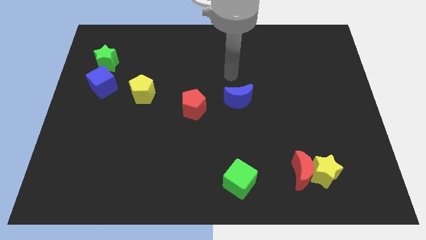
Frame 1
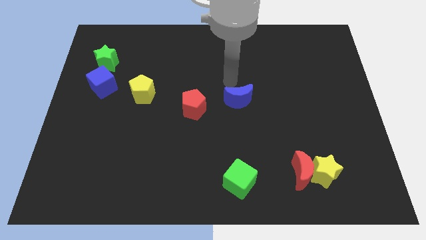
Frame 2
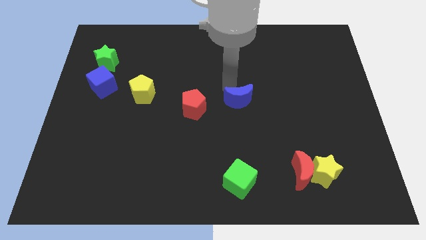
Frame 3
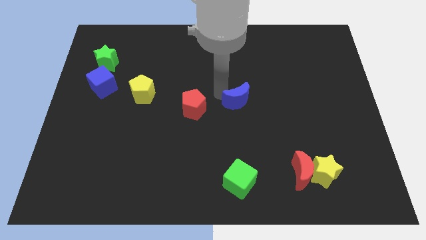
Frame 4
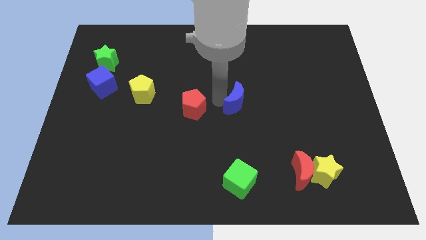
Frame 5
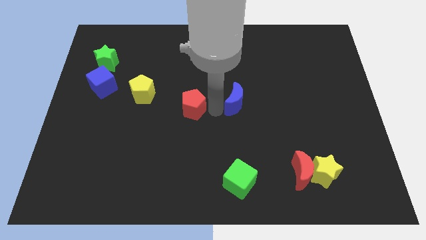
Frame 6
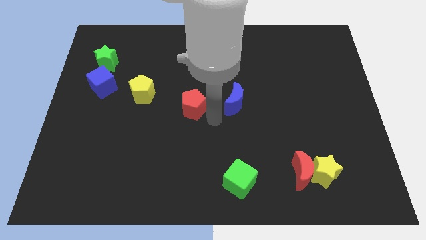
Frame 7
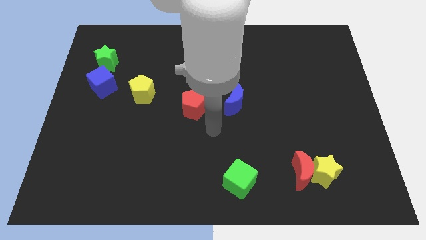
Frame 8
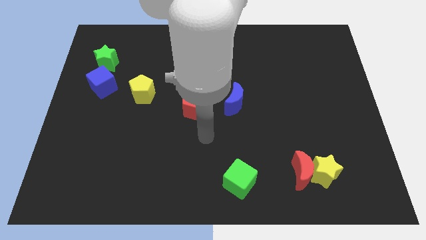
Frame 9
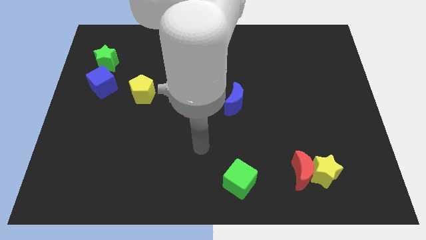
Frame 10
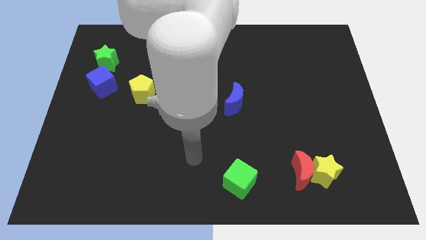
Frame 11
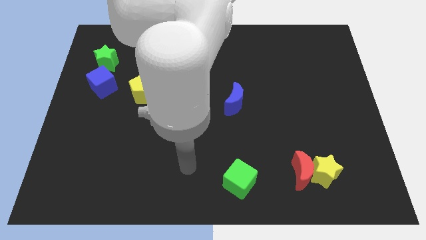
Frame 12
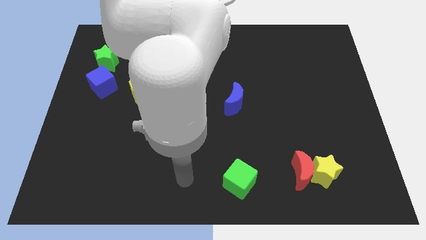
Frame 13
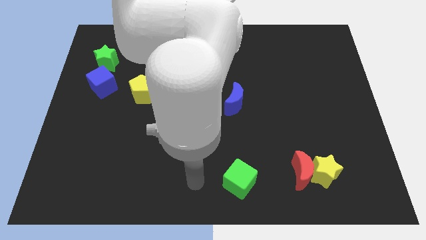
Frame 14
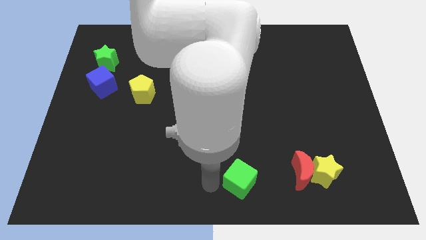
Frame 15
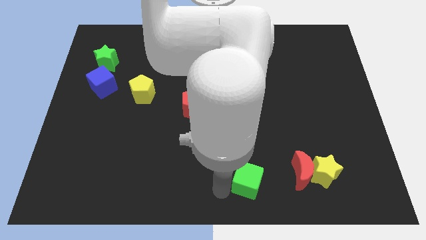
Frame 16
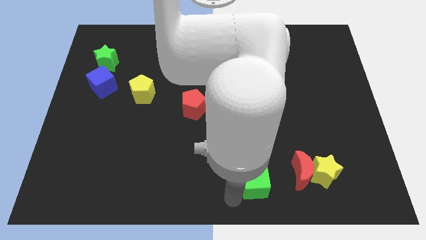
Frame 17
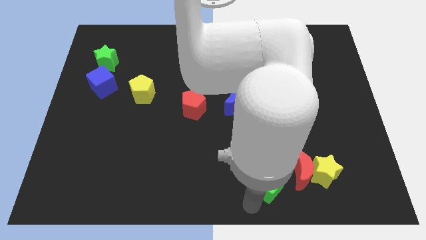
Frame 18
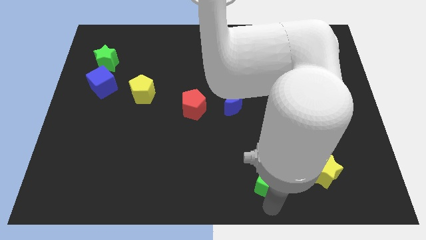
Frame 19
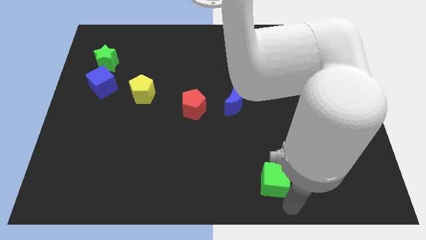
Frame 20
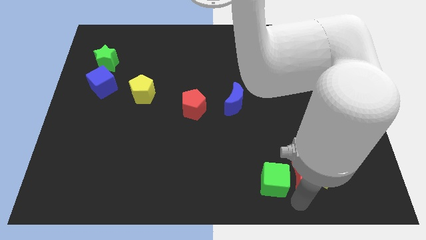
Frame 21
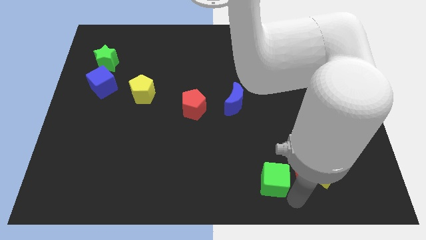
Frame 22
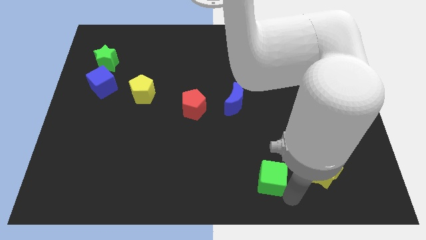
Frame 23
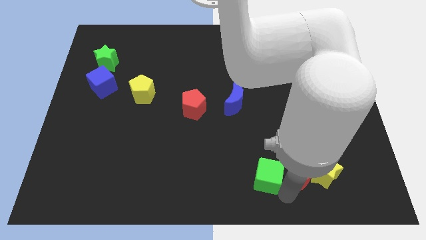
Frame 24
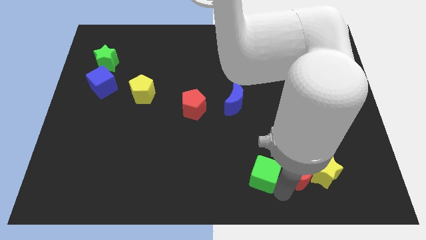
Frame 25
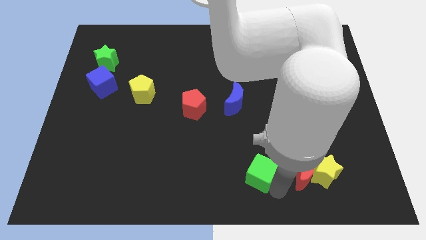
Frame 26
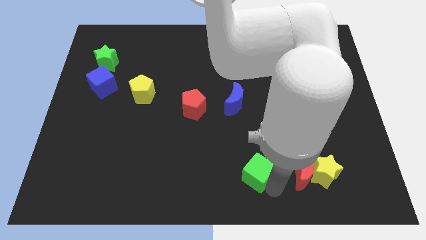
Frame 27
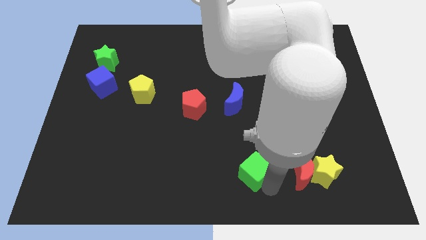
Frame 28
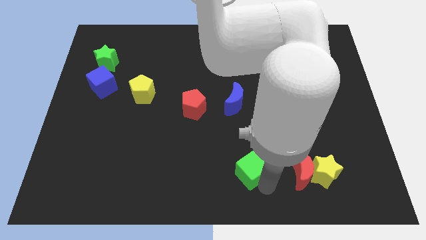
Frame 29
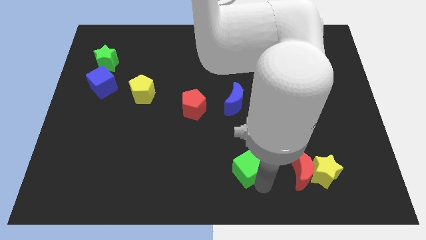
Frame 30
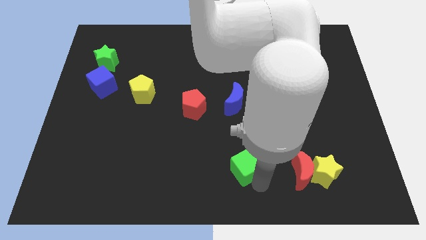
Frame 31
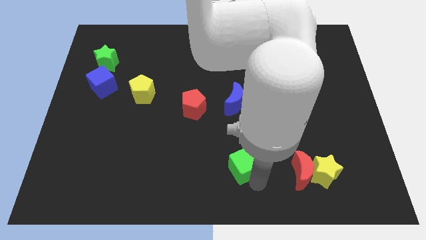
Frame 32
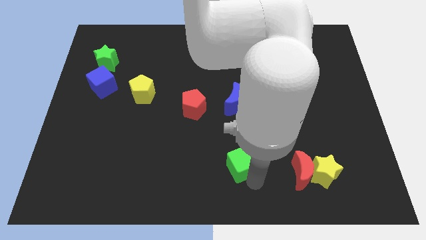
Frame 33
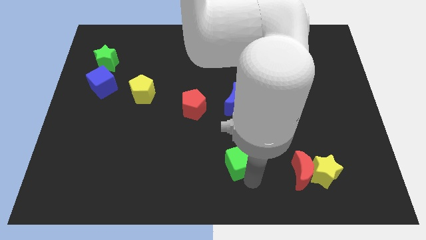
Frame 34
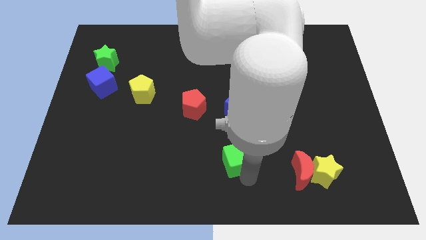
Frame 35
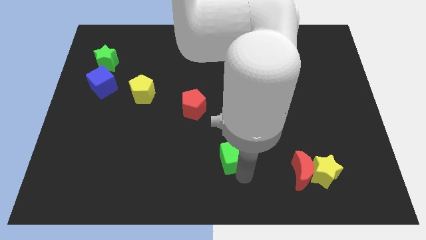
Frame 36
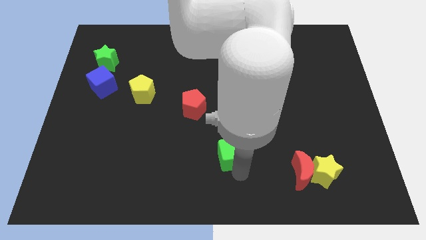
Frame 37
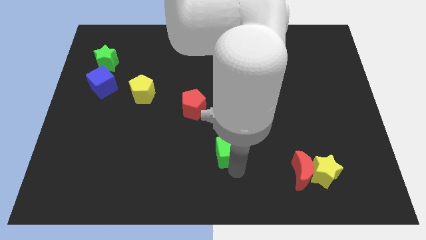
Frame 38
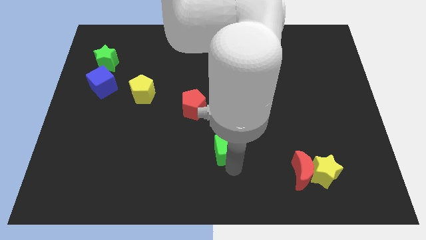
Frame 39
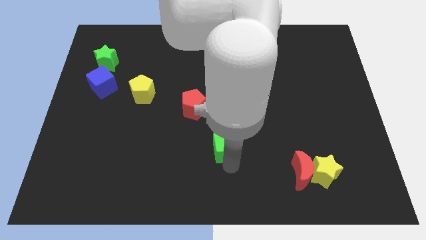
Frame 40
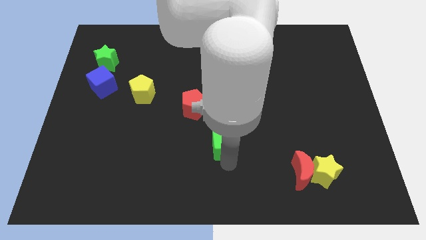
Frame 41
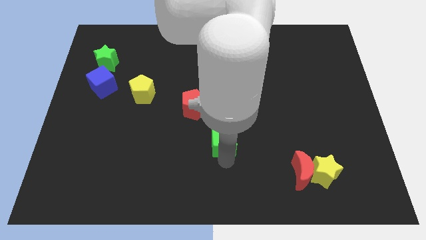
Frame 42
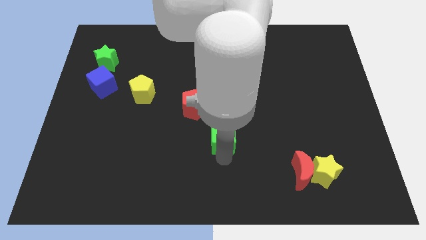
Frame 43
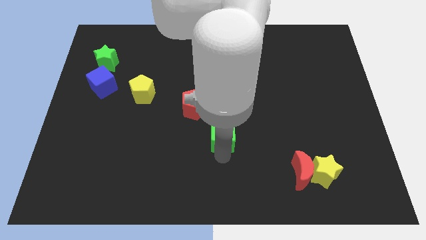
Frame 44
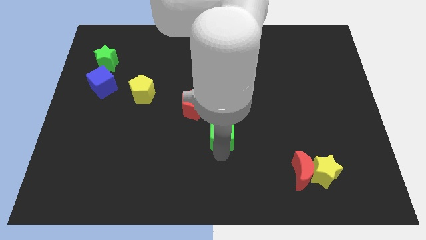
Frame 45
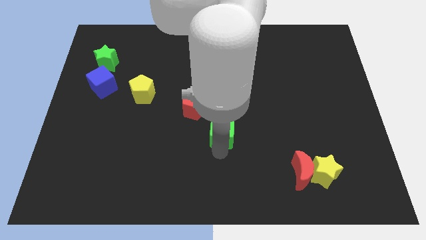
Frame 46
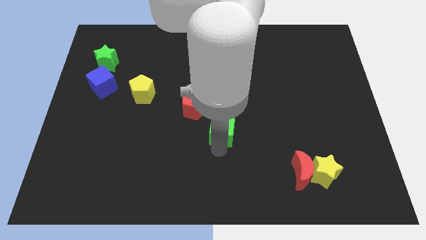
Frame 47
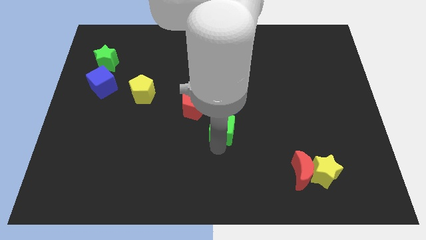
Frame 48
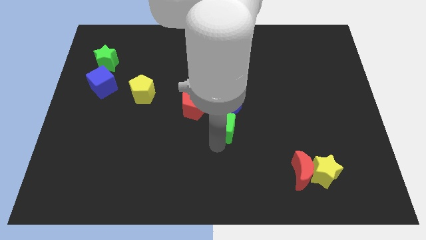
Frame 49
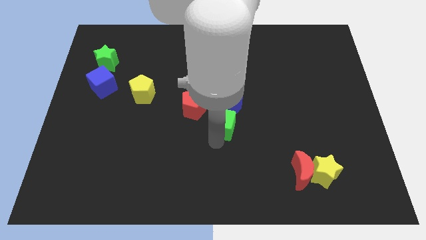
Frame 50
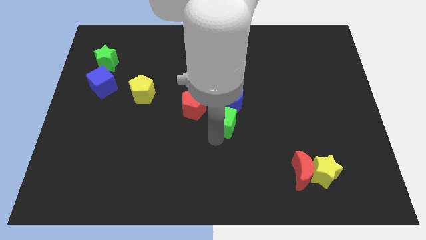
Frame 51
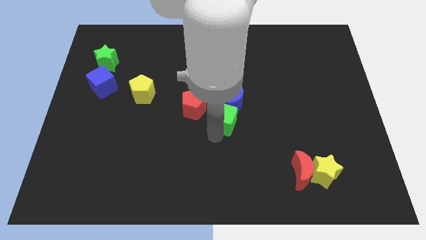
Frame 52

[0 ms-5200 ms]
push the green cube to the blue moon

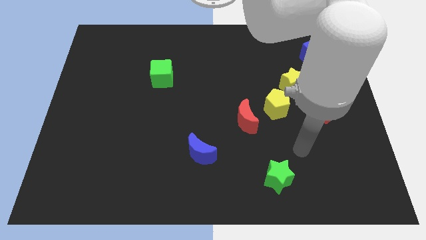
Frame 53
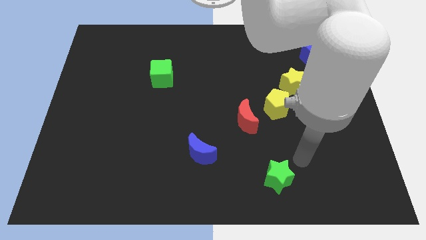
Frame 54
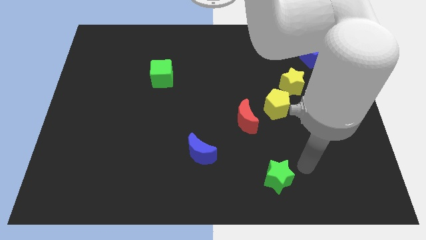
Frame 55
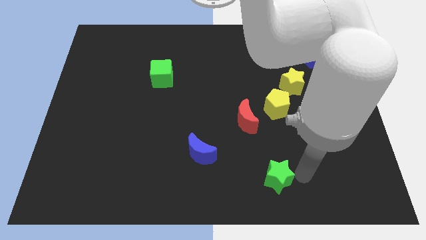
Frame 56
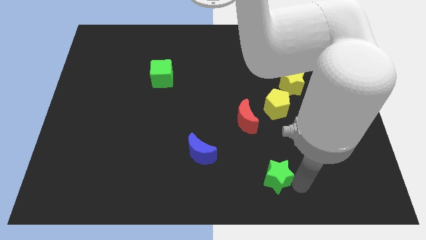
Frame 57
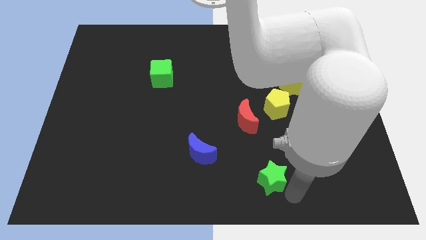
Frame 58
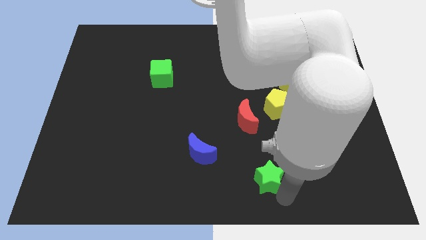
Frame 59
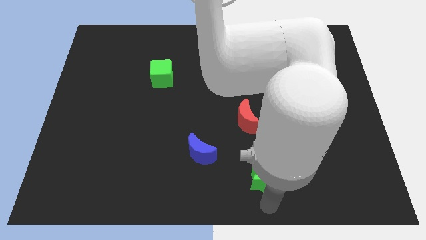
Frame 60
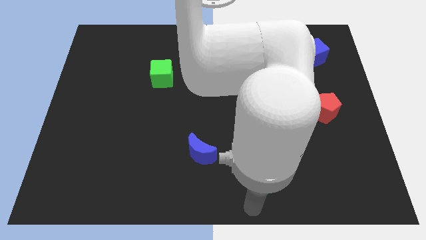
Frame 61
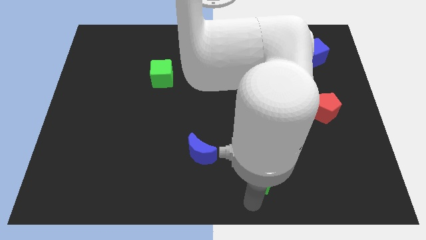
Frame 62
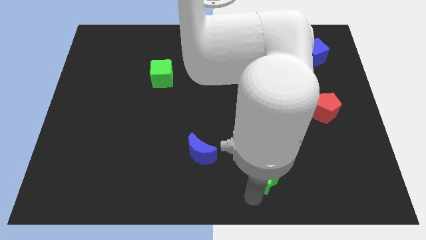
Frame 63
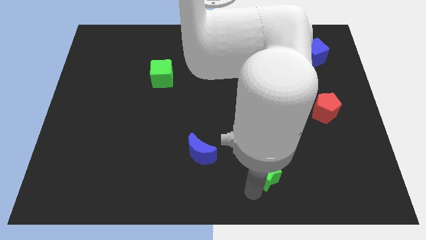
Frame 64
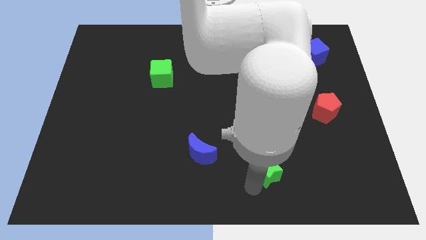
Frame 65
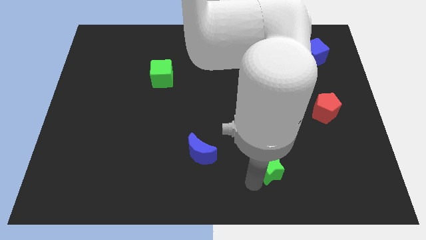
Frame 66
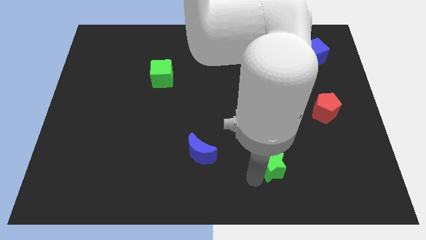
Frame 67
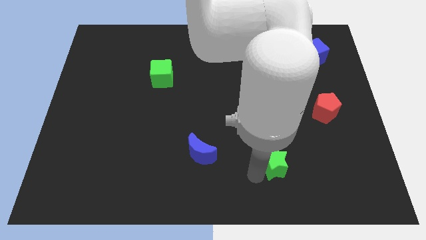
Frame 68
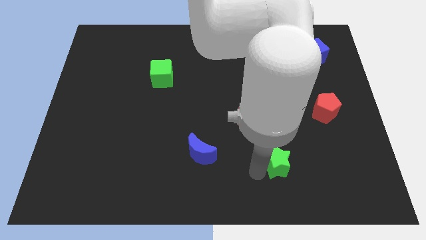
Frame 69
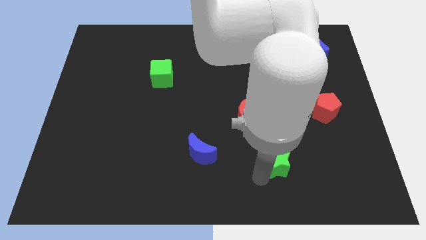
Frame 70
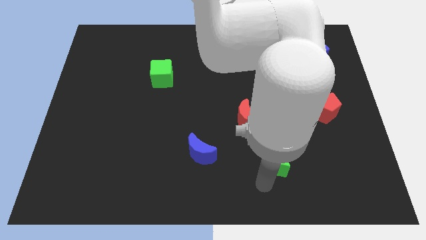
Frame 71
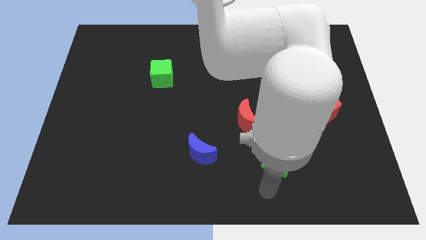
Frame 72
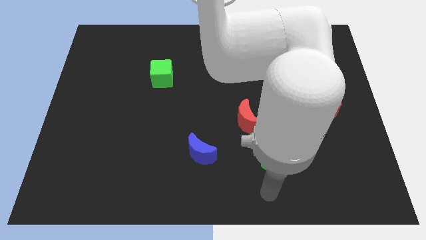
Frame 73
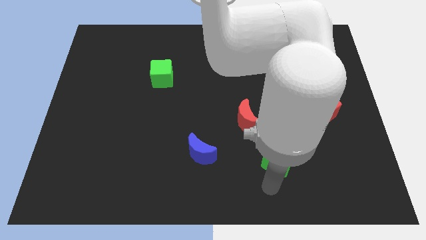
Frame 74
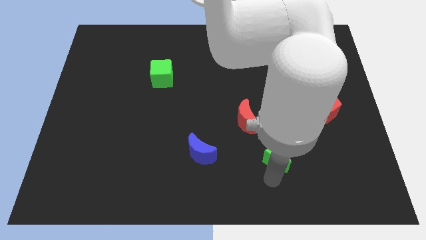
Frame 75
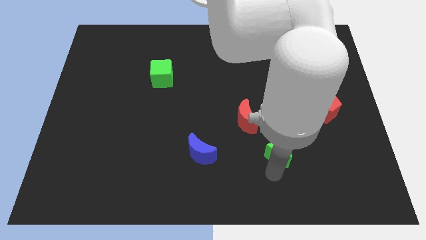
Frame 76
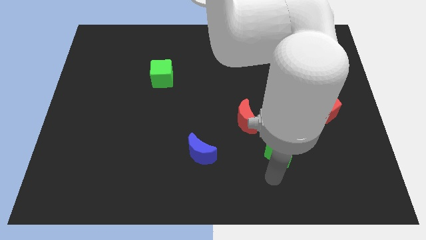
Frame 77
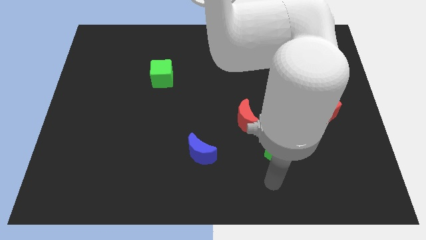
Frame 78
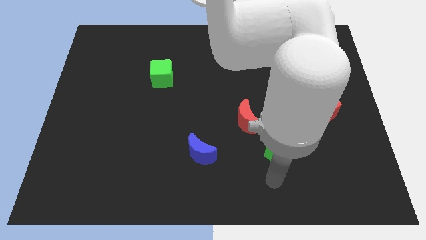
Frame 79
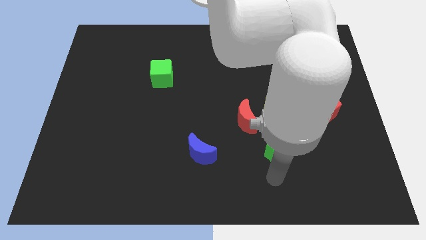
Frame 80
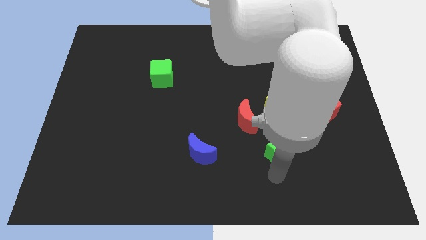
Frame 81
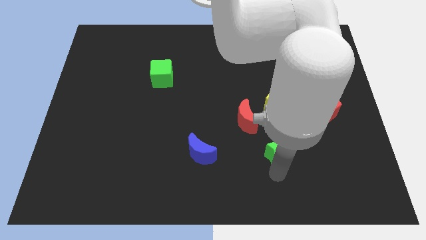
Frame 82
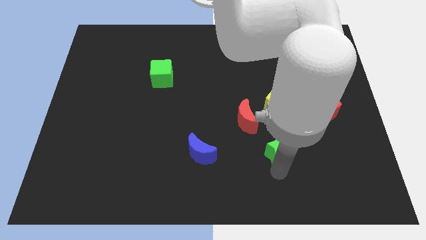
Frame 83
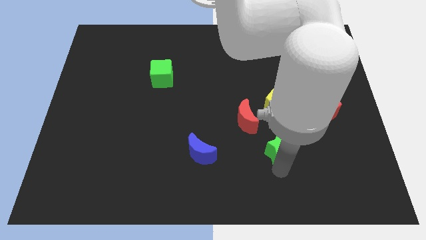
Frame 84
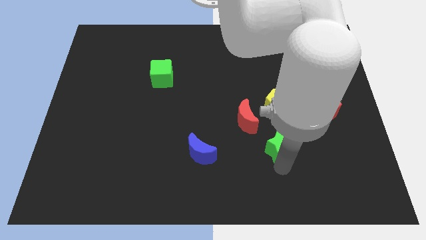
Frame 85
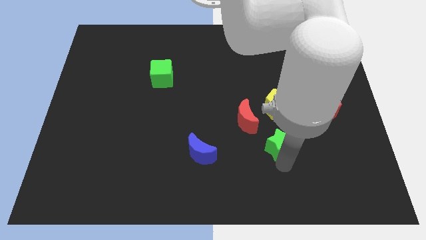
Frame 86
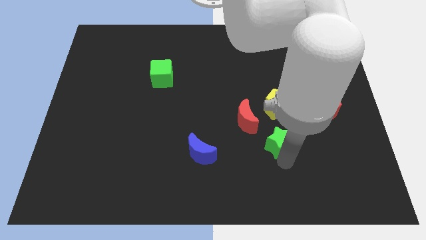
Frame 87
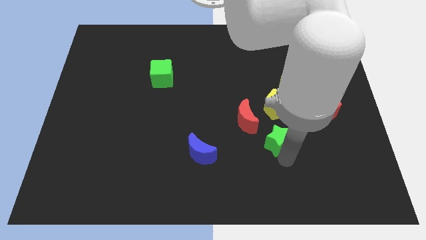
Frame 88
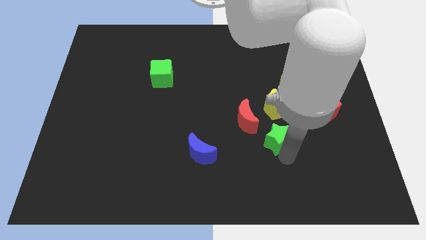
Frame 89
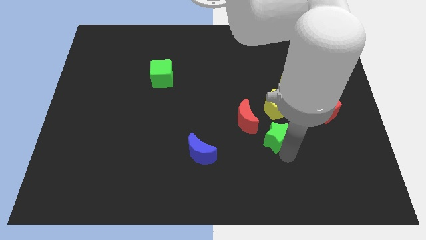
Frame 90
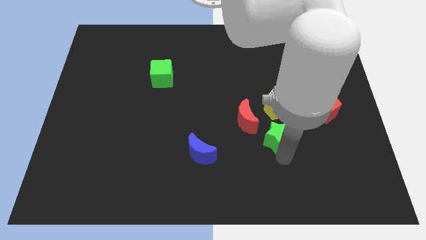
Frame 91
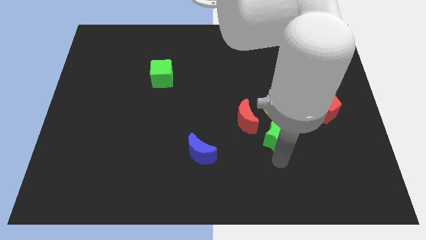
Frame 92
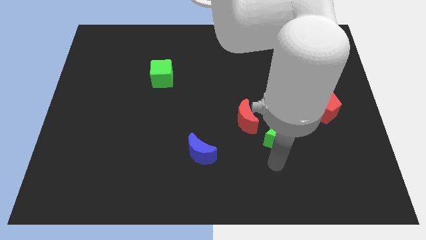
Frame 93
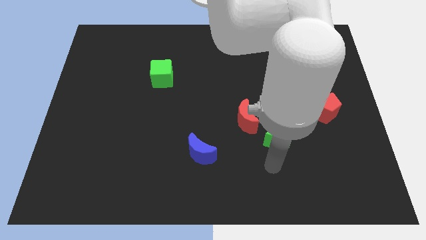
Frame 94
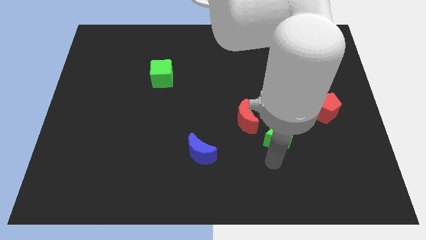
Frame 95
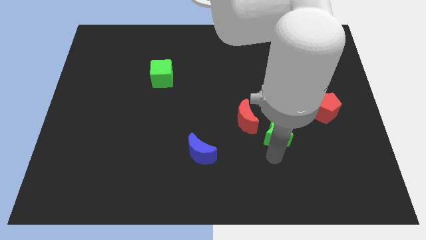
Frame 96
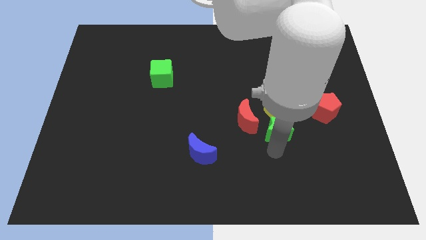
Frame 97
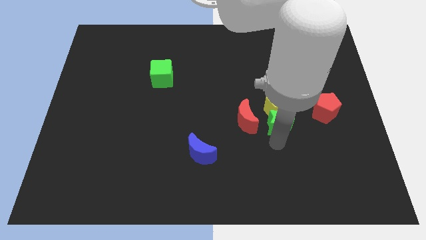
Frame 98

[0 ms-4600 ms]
push the green star to the yellow pentagon
